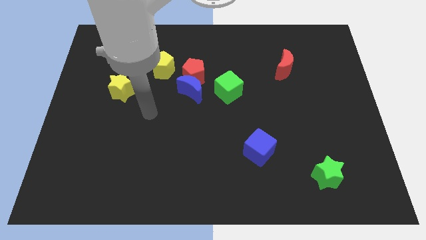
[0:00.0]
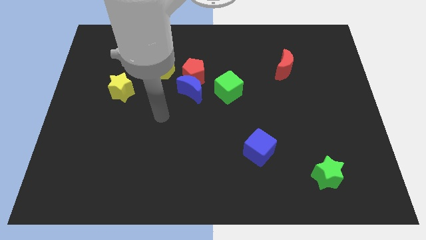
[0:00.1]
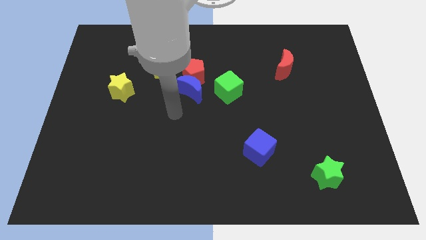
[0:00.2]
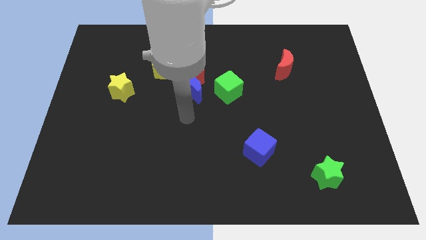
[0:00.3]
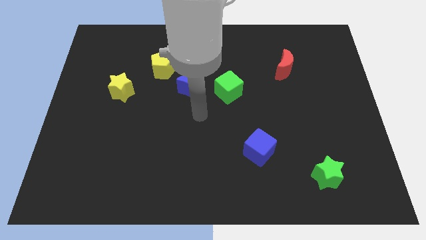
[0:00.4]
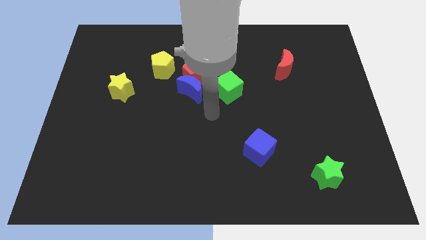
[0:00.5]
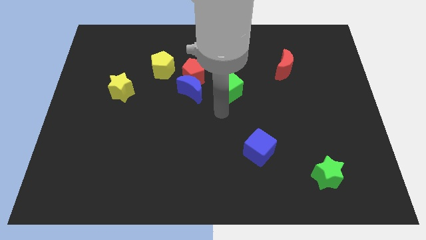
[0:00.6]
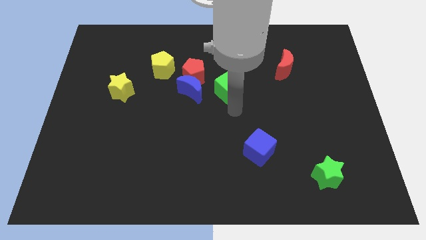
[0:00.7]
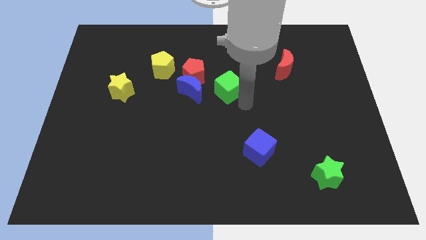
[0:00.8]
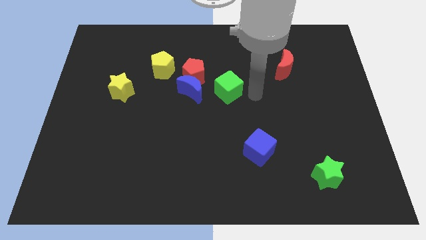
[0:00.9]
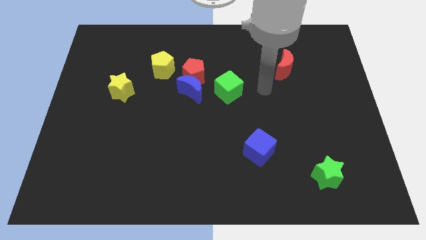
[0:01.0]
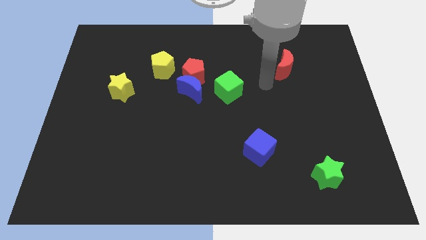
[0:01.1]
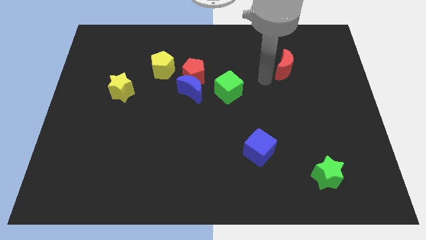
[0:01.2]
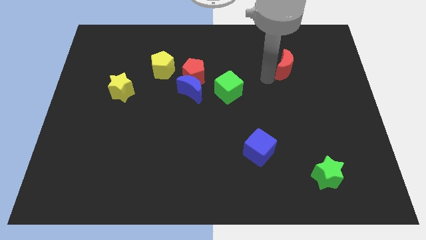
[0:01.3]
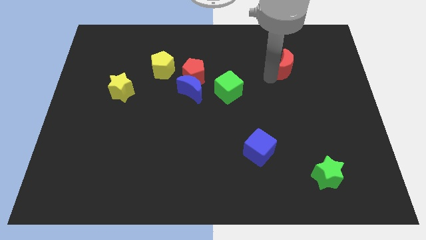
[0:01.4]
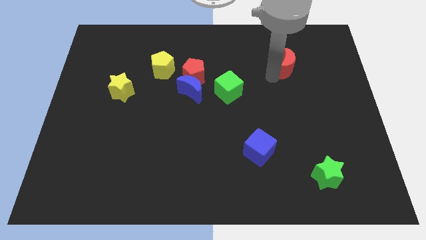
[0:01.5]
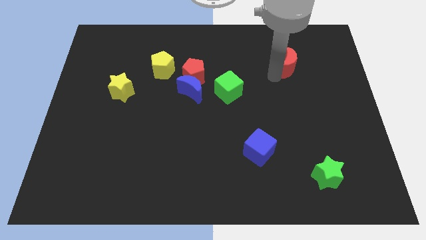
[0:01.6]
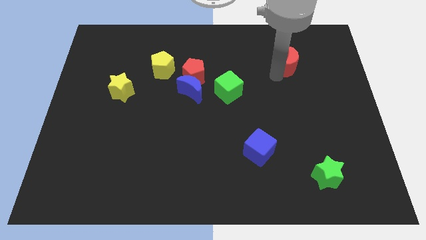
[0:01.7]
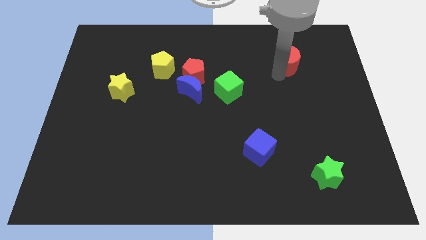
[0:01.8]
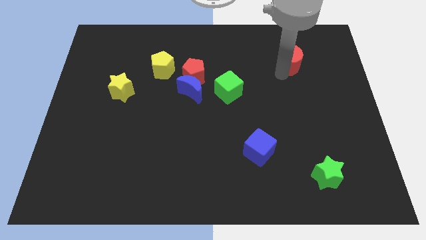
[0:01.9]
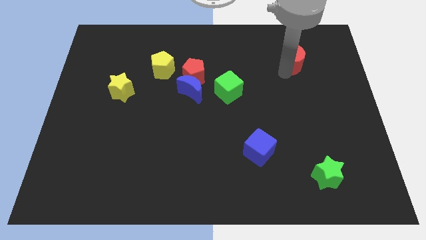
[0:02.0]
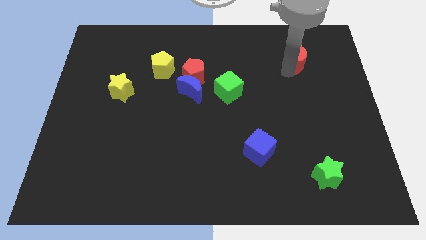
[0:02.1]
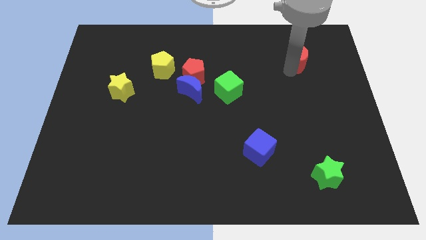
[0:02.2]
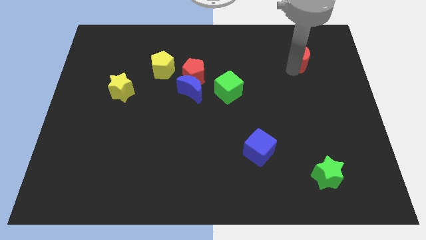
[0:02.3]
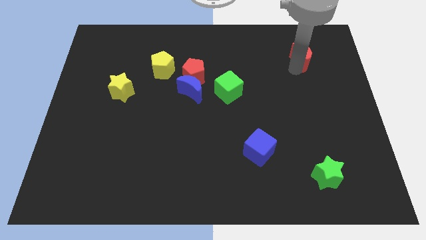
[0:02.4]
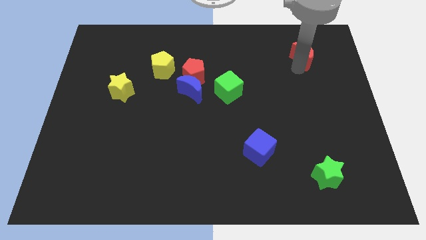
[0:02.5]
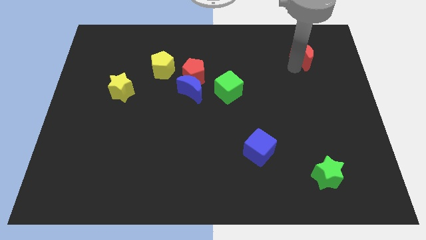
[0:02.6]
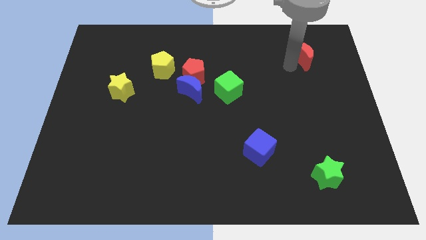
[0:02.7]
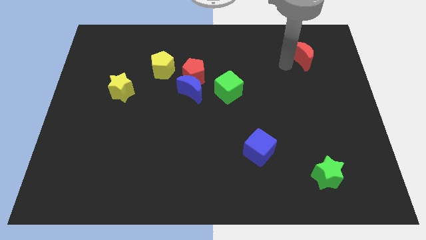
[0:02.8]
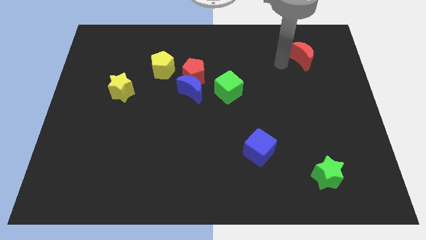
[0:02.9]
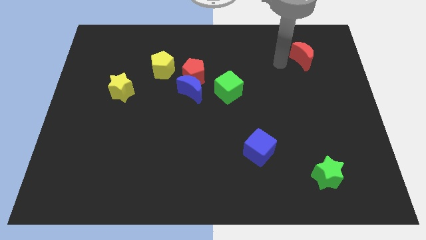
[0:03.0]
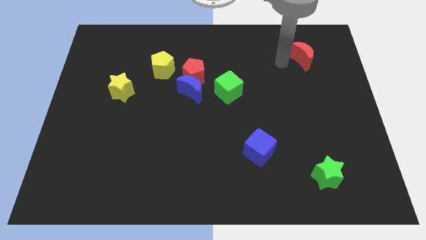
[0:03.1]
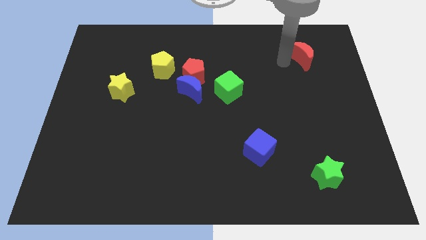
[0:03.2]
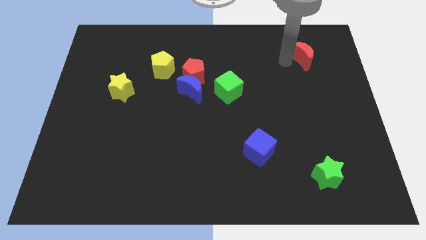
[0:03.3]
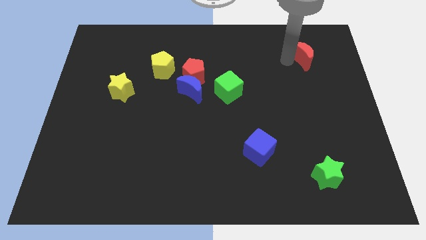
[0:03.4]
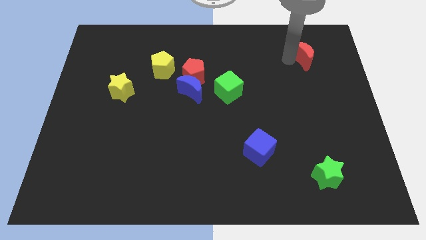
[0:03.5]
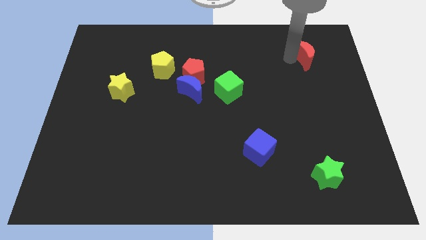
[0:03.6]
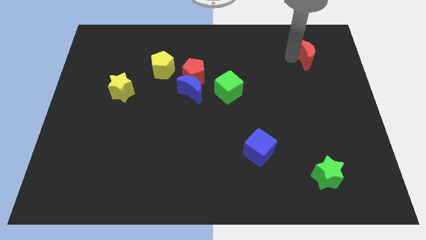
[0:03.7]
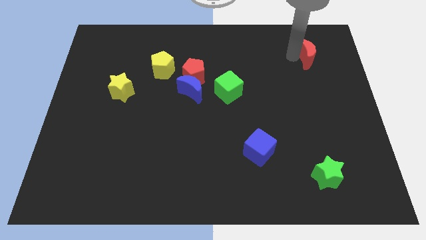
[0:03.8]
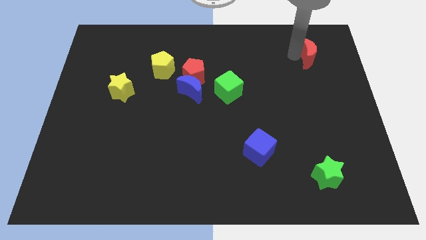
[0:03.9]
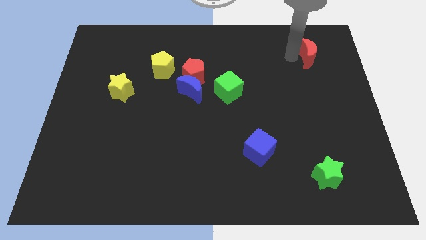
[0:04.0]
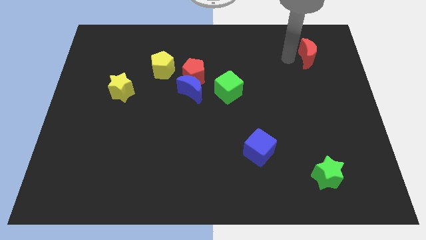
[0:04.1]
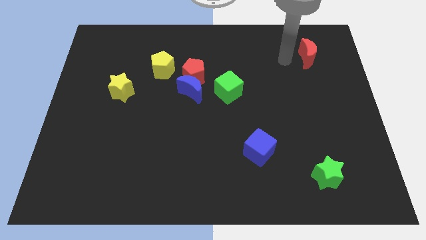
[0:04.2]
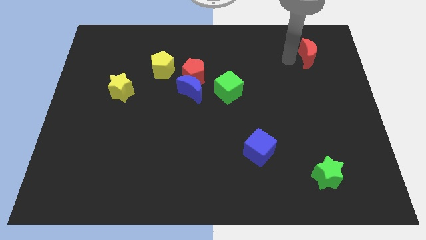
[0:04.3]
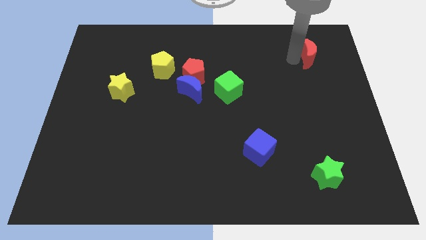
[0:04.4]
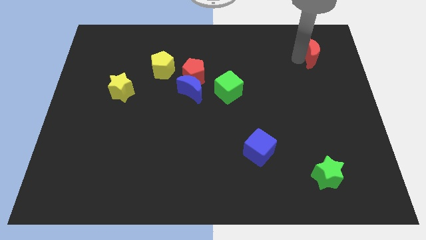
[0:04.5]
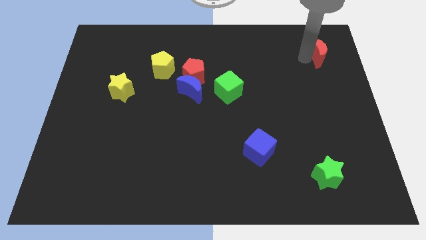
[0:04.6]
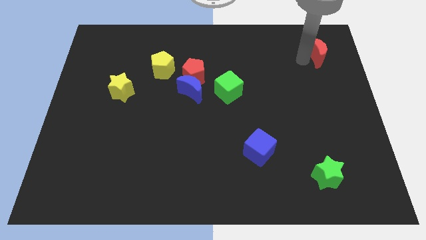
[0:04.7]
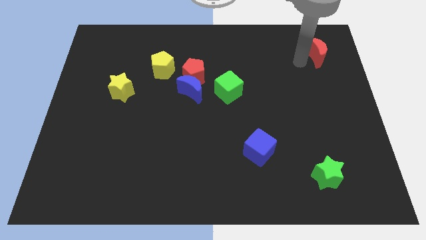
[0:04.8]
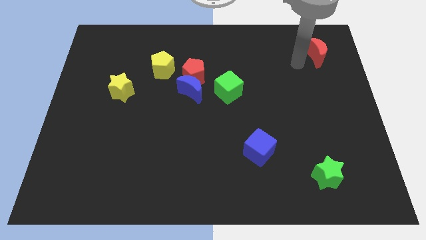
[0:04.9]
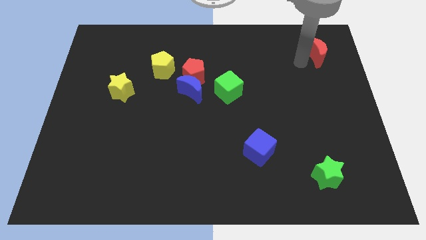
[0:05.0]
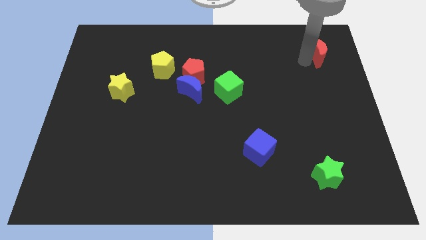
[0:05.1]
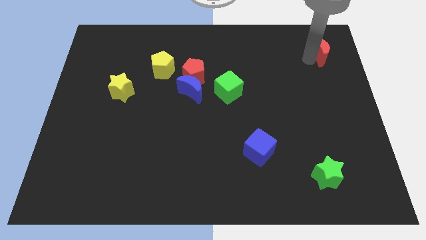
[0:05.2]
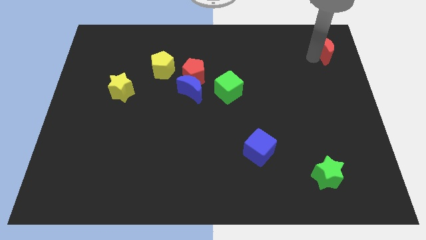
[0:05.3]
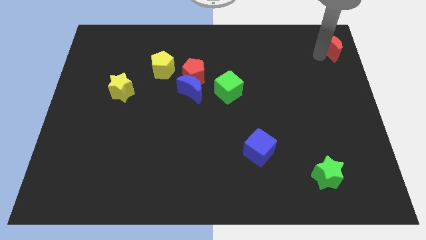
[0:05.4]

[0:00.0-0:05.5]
put the red moon to the upper right corner
